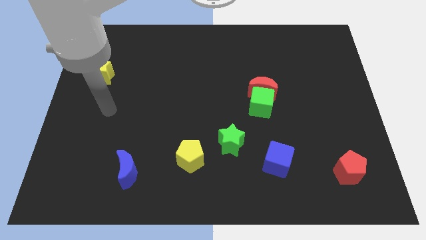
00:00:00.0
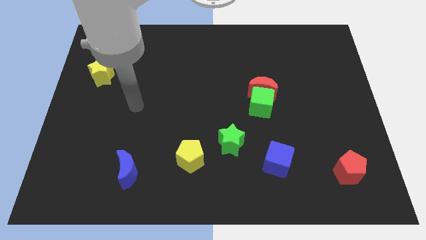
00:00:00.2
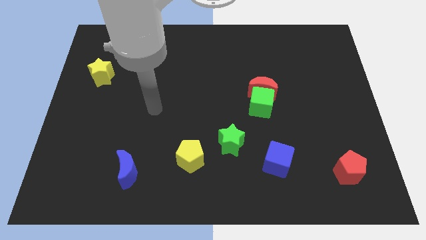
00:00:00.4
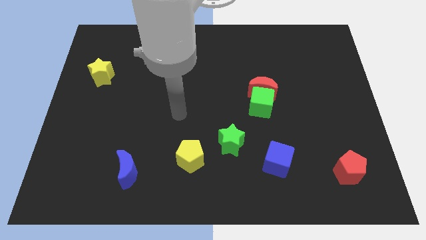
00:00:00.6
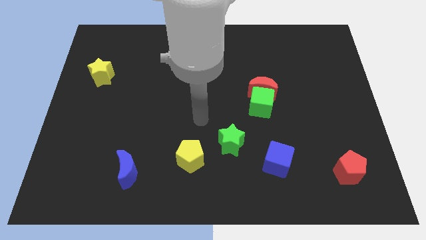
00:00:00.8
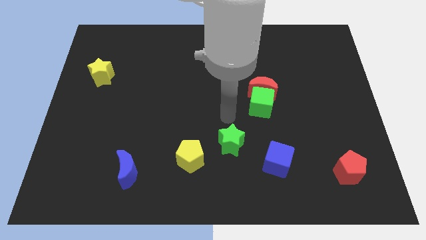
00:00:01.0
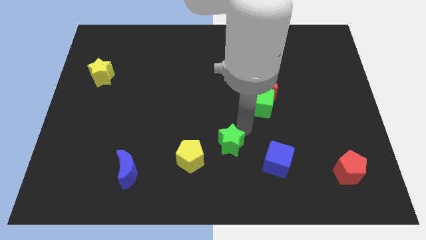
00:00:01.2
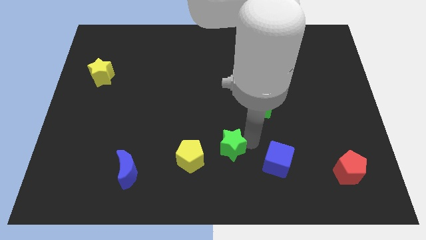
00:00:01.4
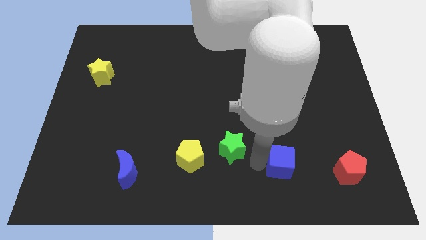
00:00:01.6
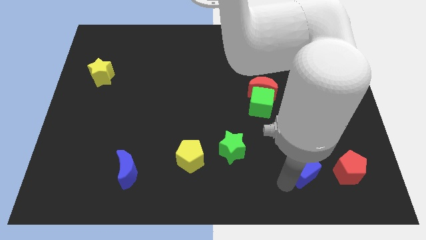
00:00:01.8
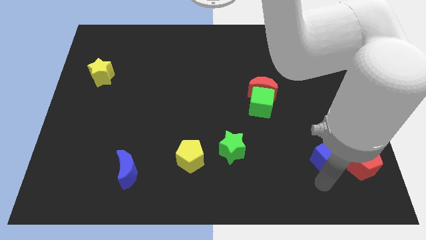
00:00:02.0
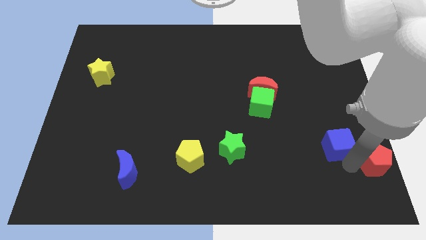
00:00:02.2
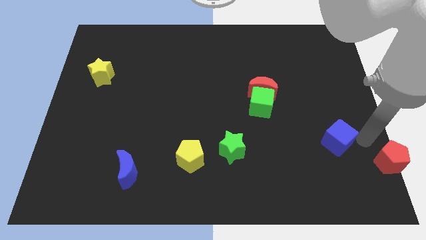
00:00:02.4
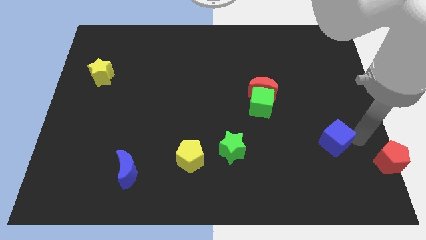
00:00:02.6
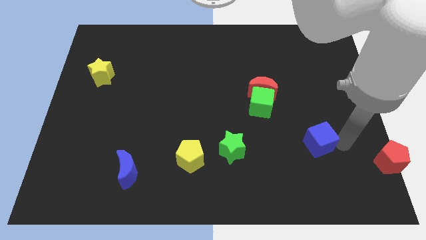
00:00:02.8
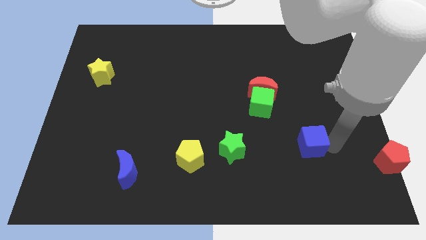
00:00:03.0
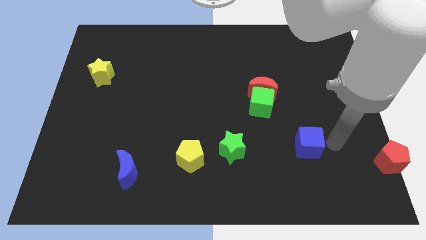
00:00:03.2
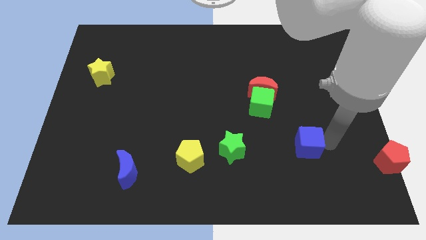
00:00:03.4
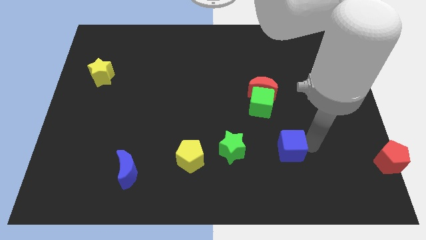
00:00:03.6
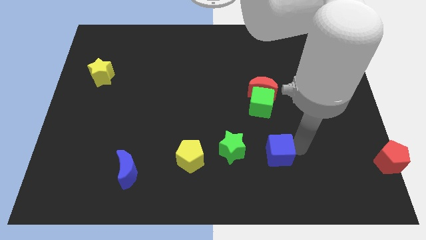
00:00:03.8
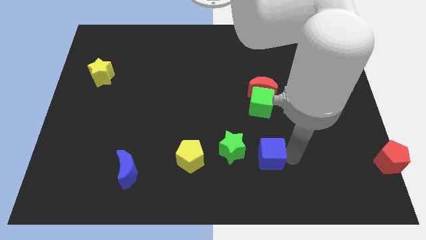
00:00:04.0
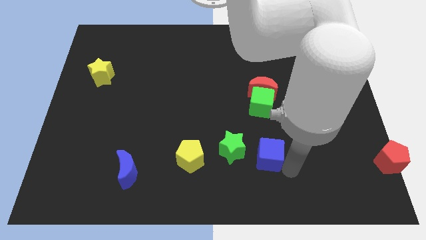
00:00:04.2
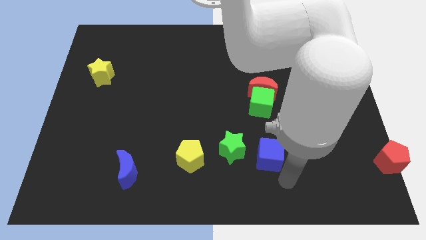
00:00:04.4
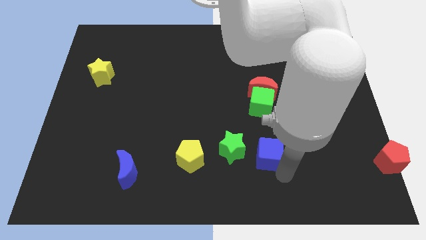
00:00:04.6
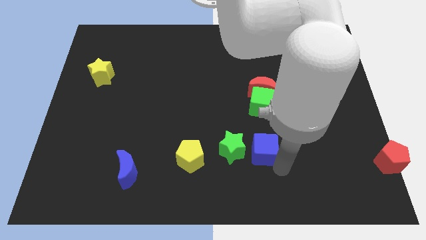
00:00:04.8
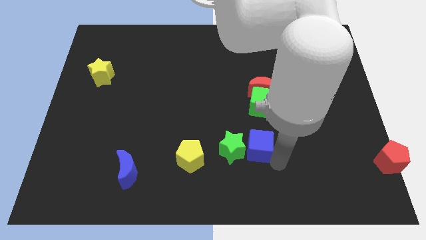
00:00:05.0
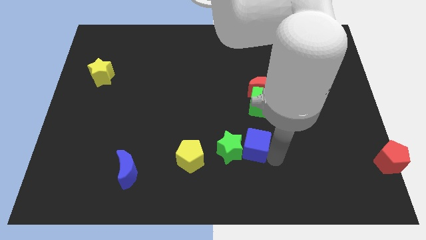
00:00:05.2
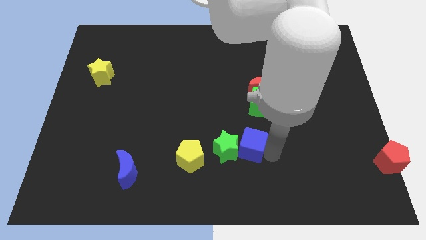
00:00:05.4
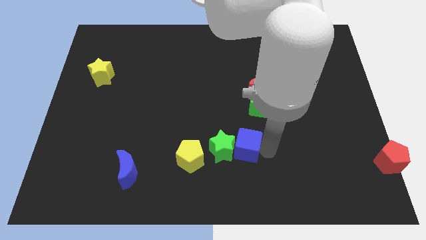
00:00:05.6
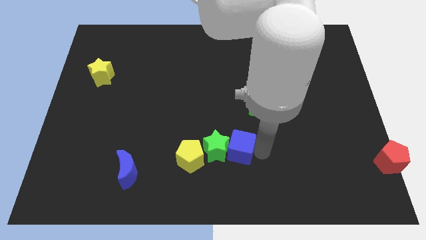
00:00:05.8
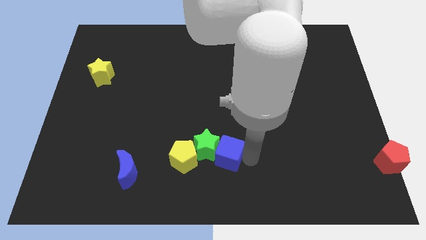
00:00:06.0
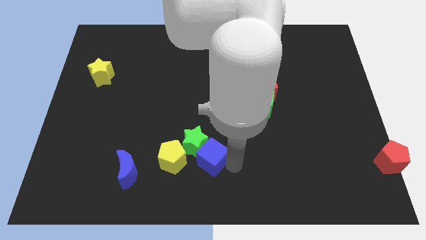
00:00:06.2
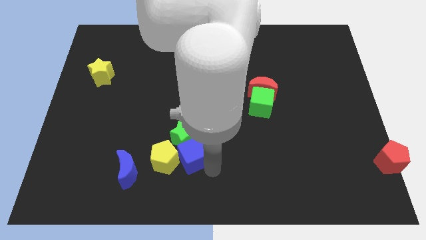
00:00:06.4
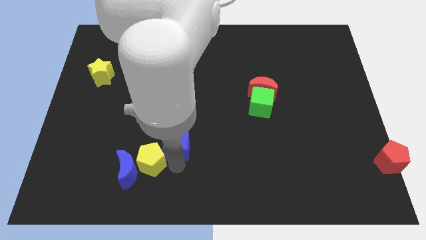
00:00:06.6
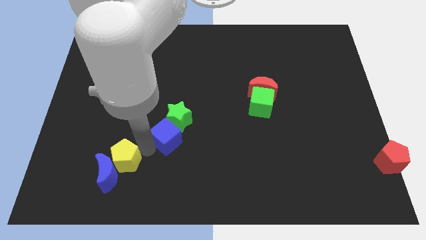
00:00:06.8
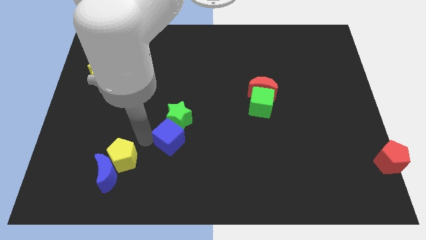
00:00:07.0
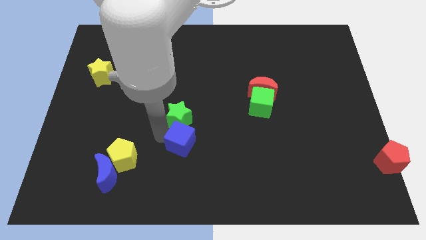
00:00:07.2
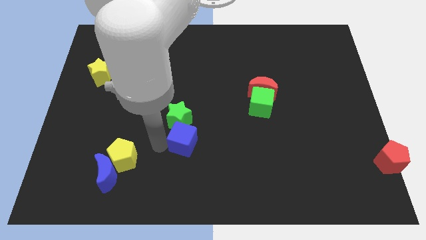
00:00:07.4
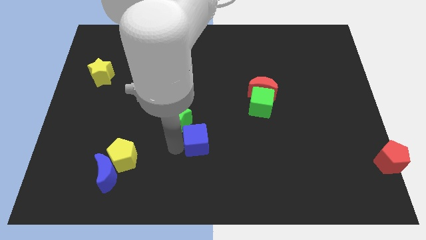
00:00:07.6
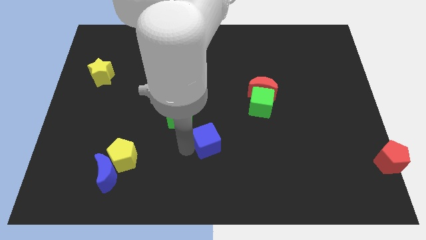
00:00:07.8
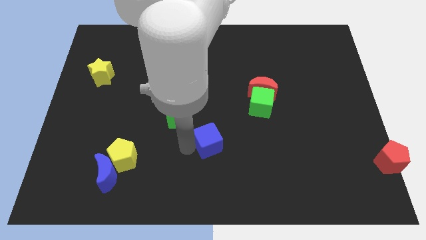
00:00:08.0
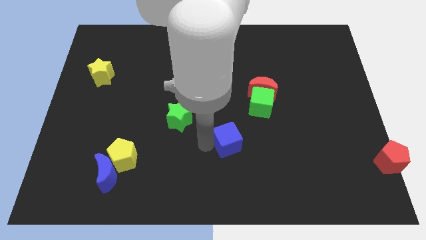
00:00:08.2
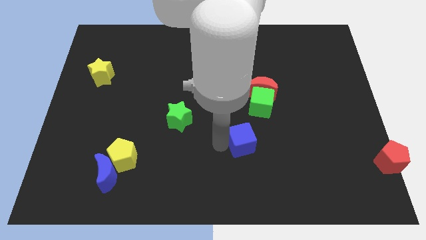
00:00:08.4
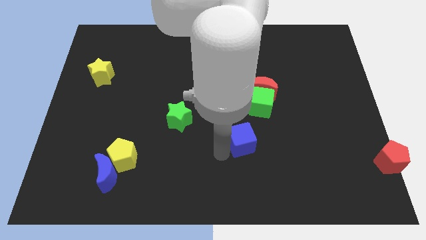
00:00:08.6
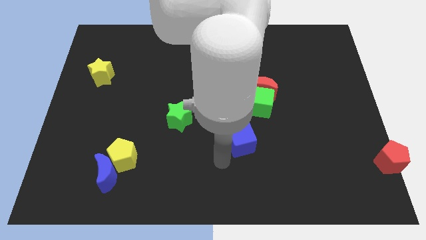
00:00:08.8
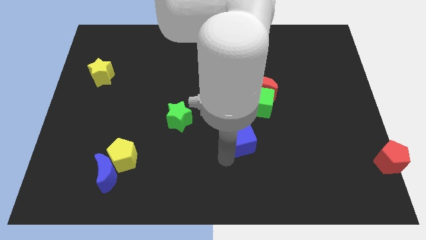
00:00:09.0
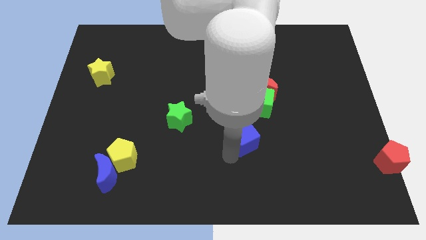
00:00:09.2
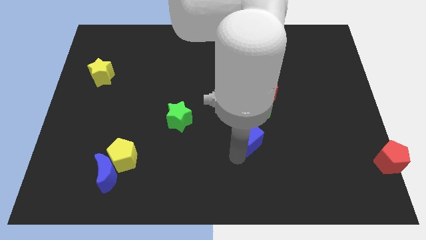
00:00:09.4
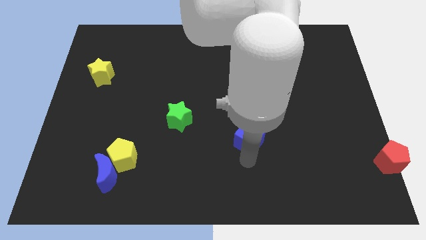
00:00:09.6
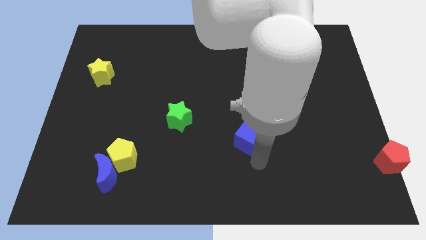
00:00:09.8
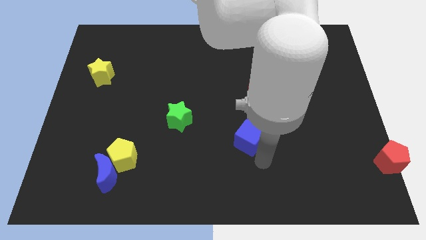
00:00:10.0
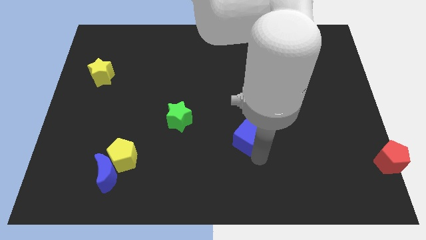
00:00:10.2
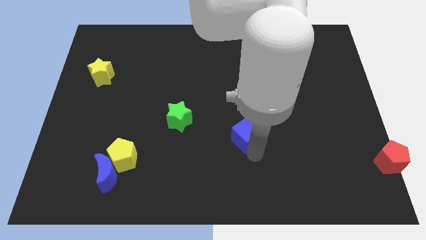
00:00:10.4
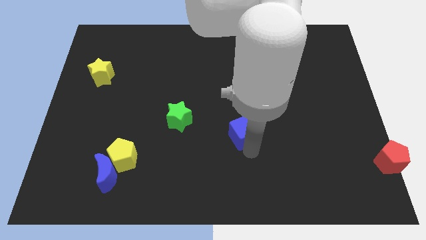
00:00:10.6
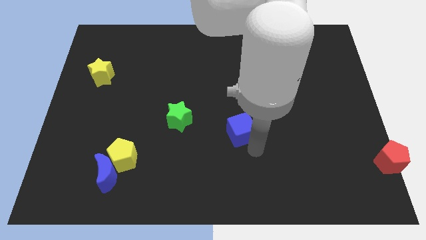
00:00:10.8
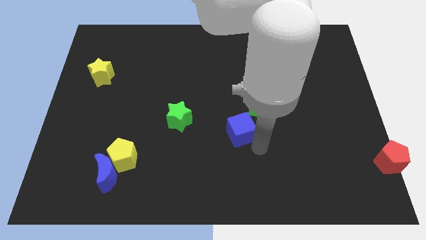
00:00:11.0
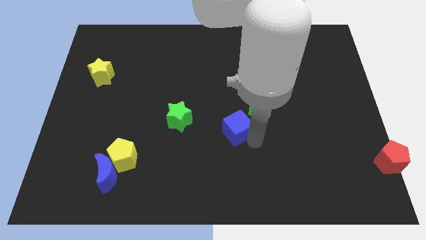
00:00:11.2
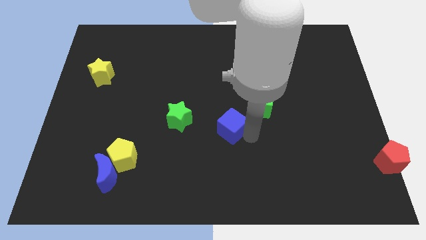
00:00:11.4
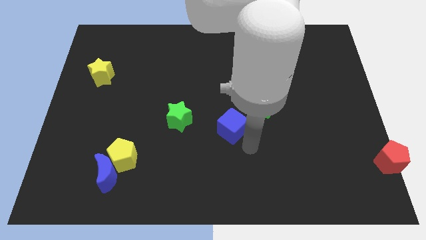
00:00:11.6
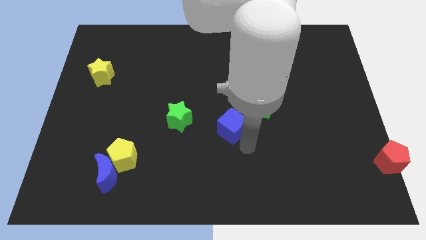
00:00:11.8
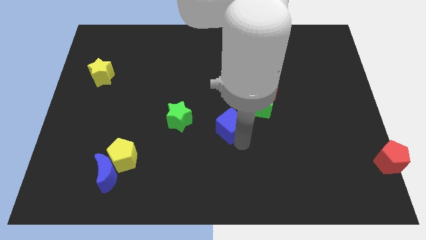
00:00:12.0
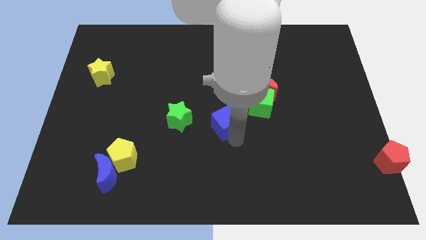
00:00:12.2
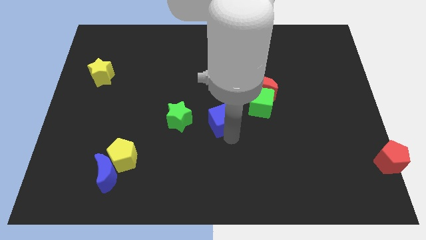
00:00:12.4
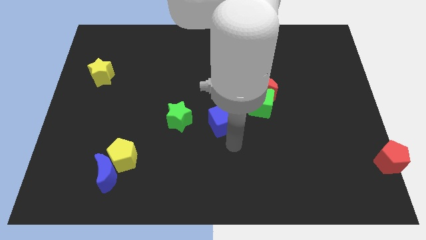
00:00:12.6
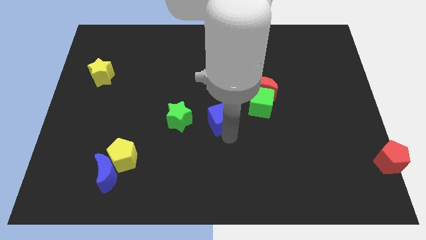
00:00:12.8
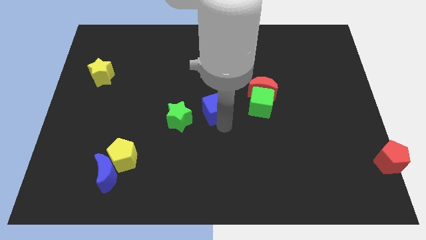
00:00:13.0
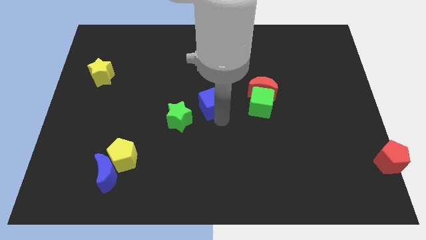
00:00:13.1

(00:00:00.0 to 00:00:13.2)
move the blue cube upwards and left

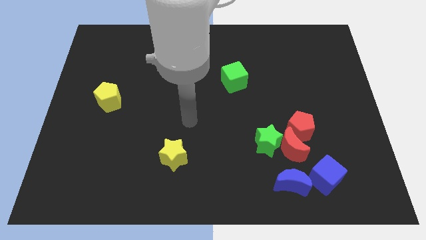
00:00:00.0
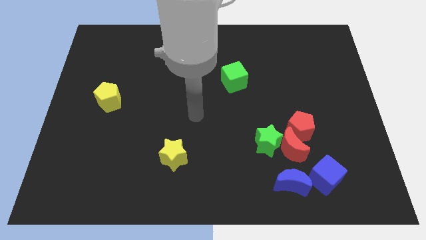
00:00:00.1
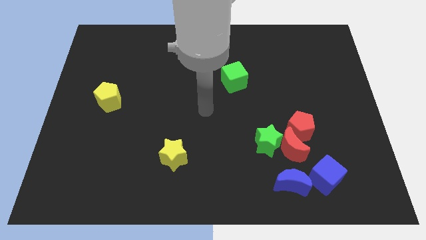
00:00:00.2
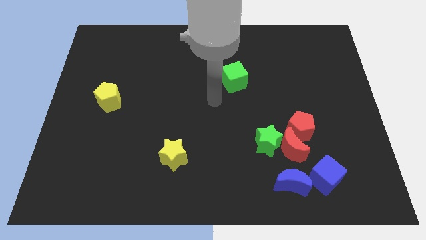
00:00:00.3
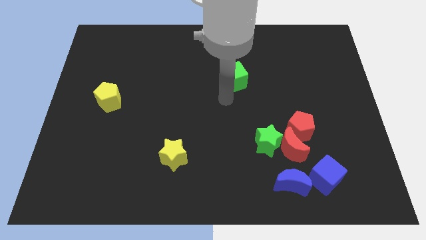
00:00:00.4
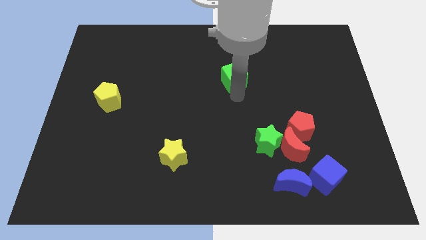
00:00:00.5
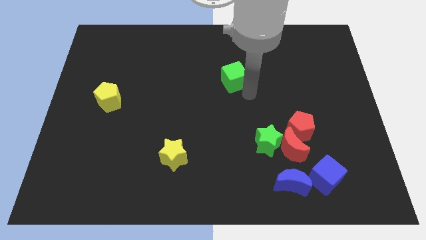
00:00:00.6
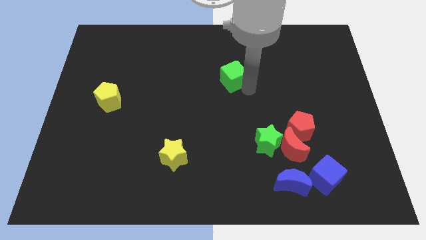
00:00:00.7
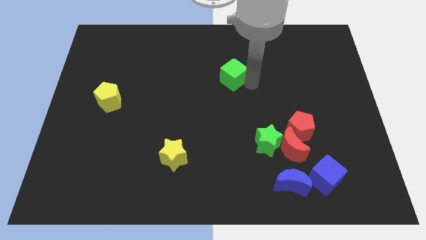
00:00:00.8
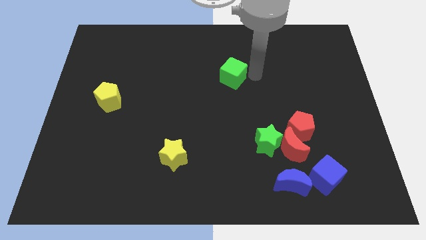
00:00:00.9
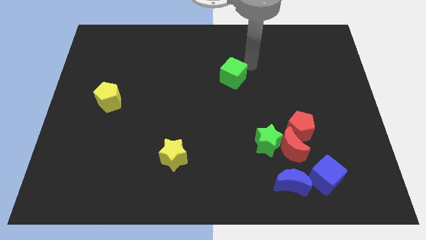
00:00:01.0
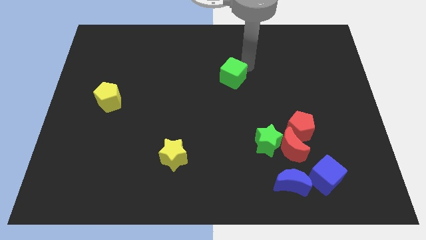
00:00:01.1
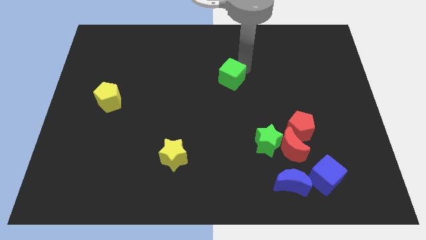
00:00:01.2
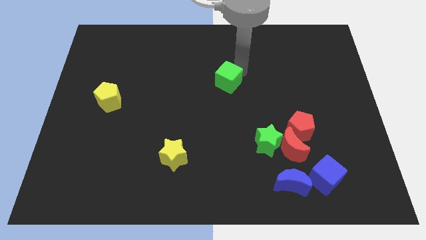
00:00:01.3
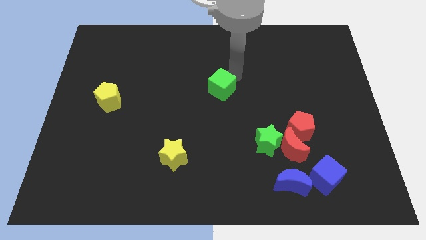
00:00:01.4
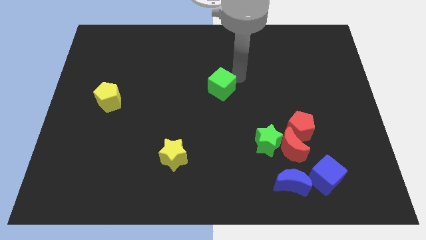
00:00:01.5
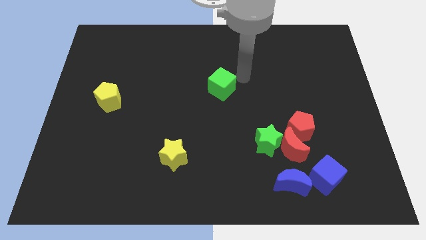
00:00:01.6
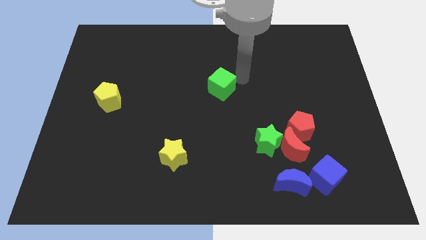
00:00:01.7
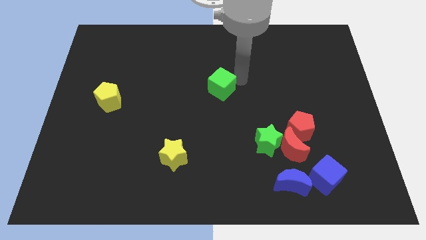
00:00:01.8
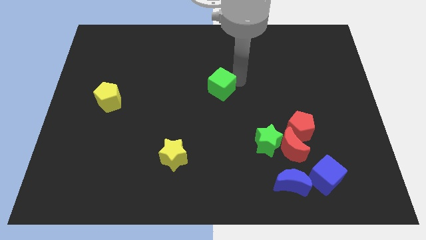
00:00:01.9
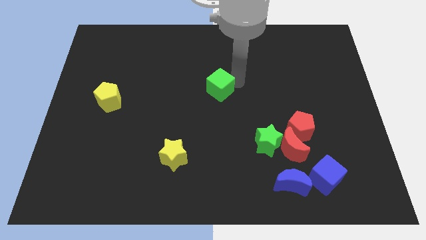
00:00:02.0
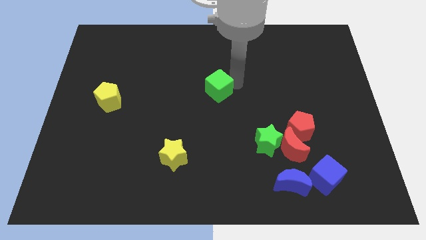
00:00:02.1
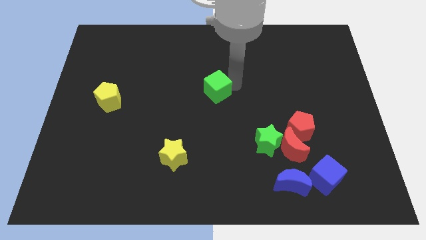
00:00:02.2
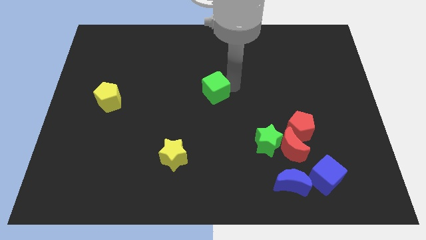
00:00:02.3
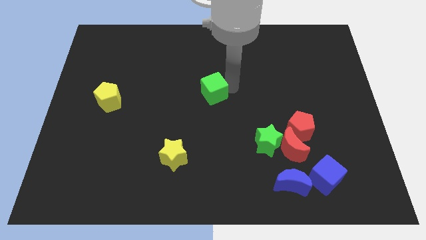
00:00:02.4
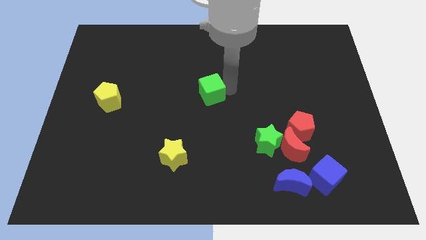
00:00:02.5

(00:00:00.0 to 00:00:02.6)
move the green cube downwards and then left somewhat
